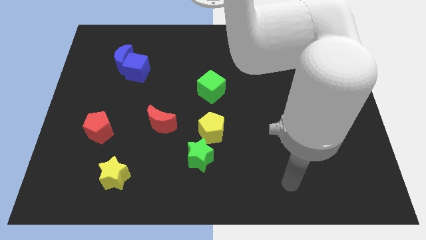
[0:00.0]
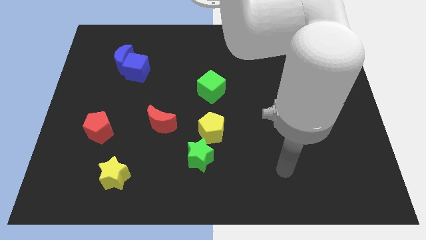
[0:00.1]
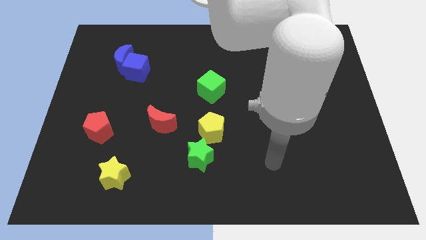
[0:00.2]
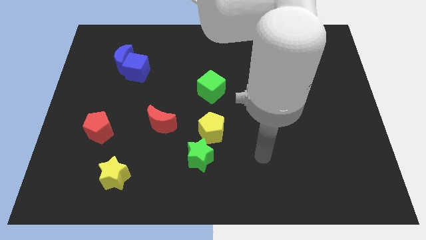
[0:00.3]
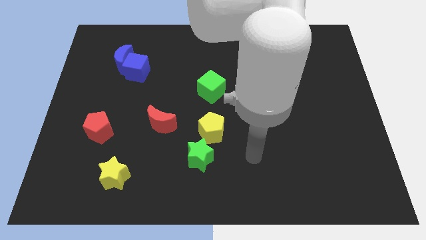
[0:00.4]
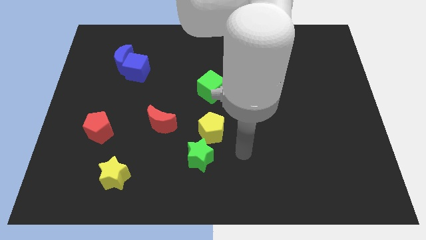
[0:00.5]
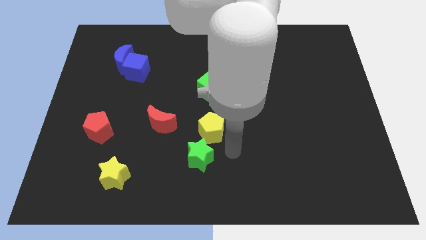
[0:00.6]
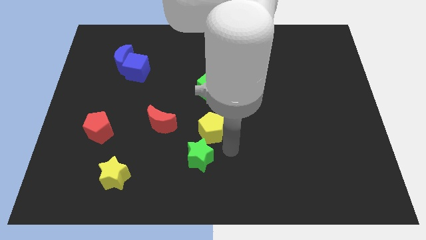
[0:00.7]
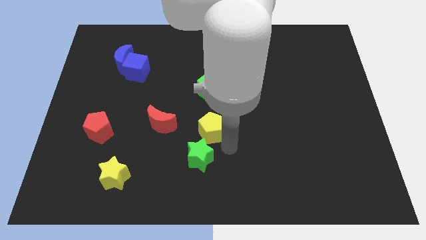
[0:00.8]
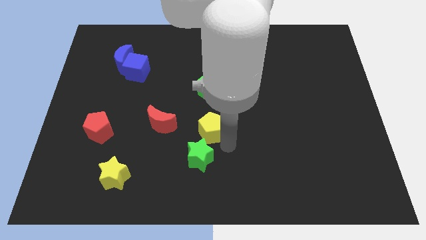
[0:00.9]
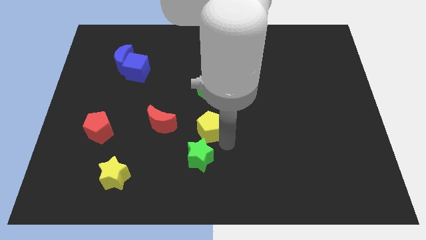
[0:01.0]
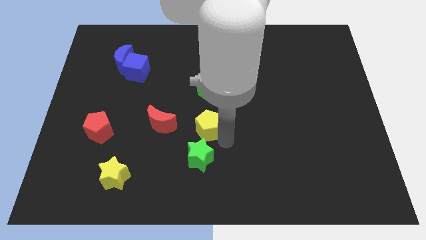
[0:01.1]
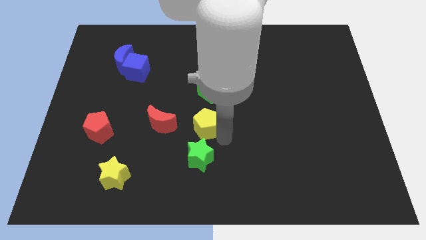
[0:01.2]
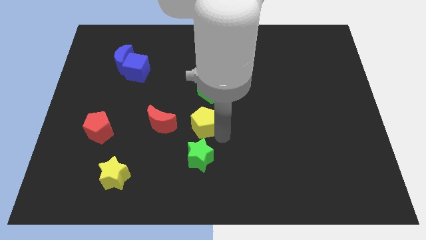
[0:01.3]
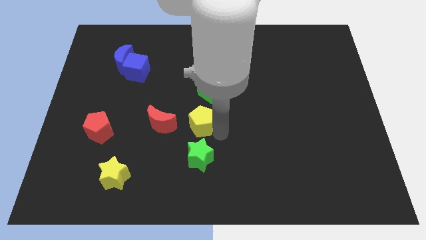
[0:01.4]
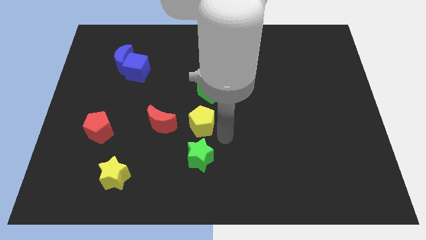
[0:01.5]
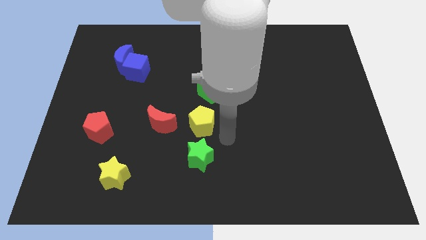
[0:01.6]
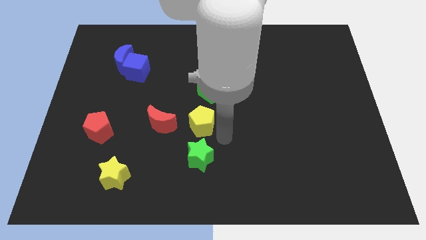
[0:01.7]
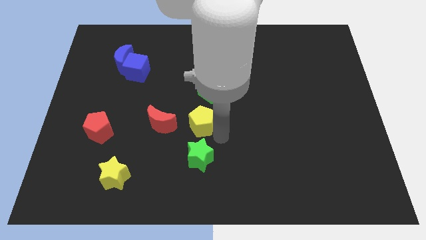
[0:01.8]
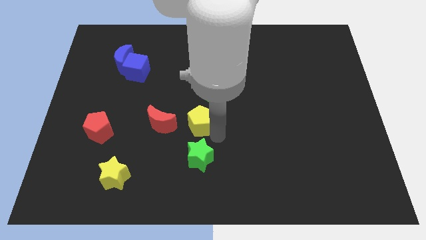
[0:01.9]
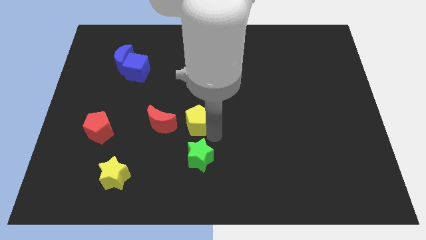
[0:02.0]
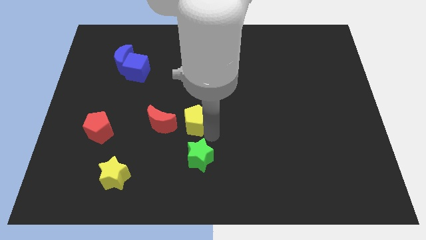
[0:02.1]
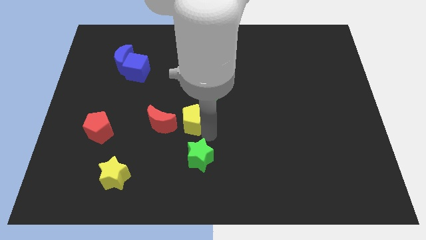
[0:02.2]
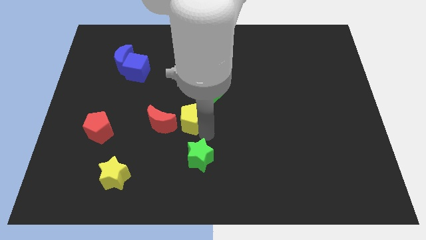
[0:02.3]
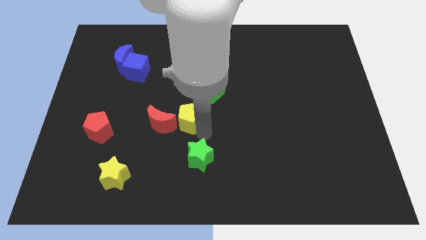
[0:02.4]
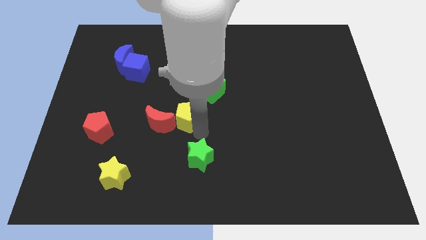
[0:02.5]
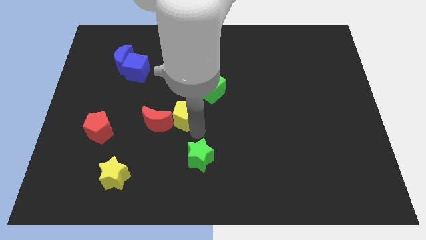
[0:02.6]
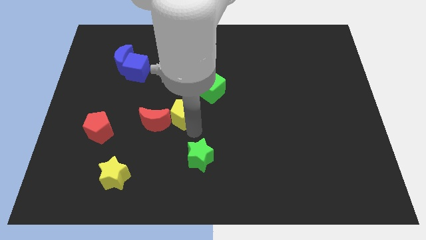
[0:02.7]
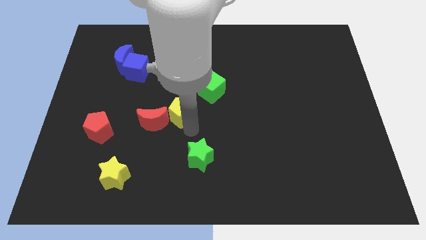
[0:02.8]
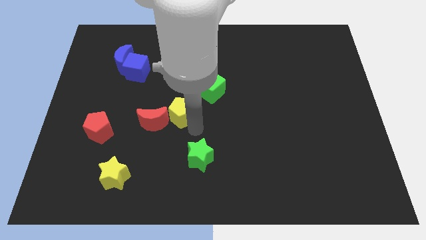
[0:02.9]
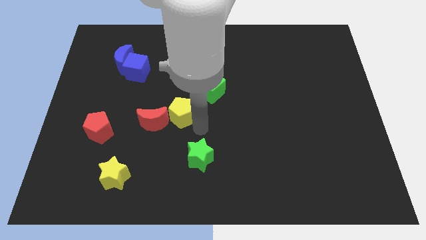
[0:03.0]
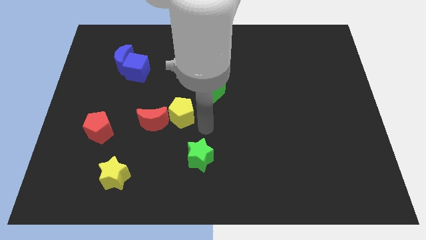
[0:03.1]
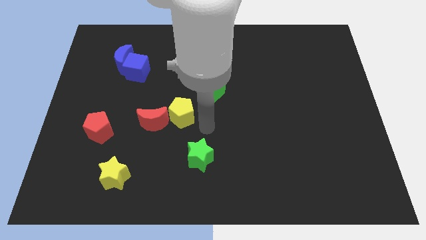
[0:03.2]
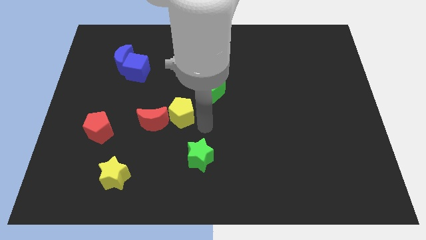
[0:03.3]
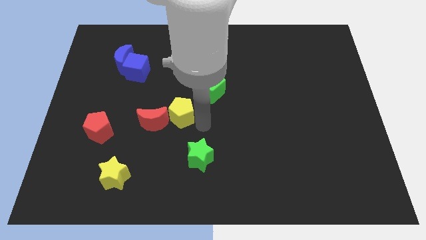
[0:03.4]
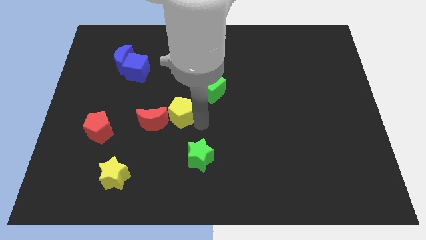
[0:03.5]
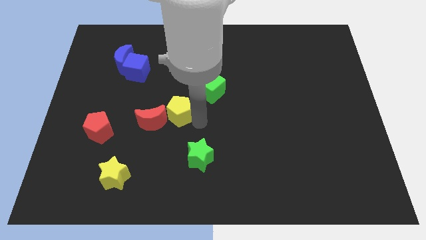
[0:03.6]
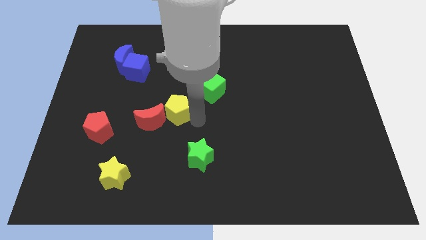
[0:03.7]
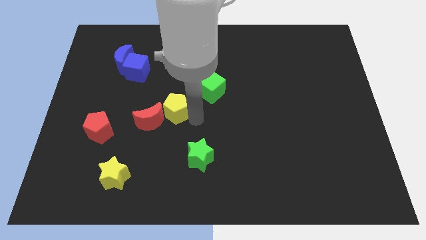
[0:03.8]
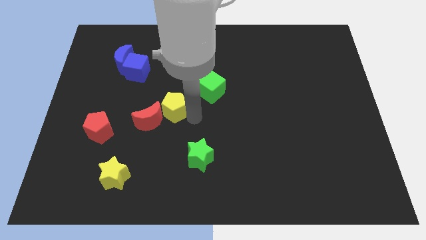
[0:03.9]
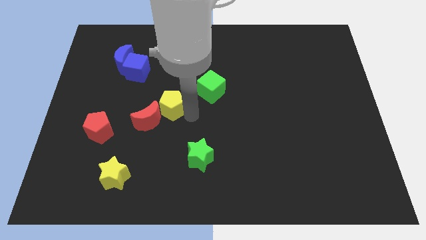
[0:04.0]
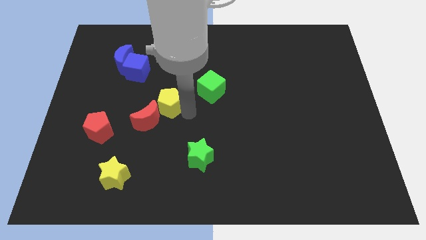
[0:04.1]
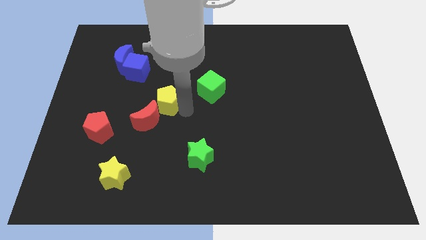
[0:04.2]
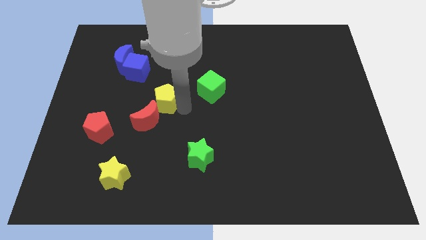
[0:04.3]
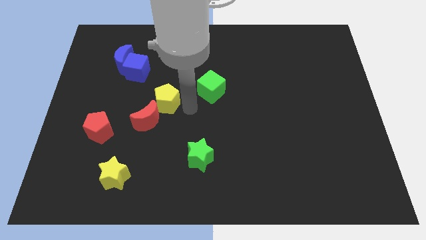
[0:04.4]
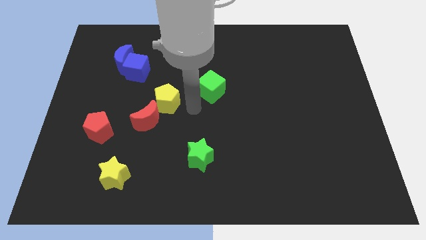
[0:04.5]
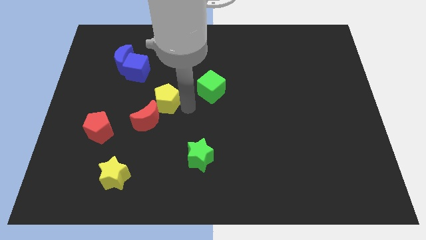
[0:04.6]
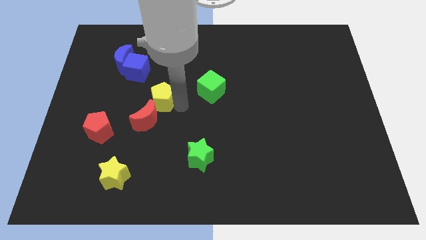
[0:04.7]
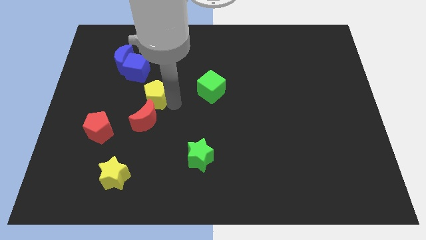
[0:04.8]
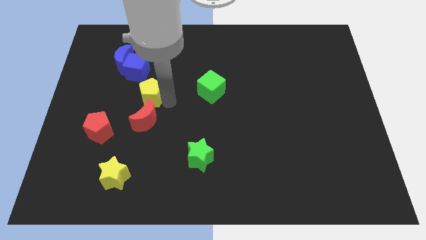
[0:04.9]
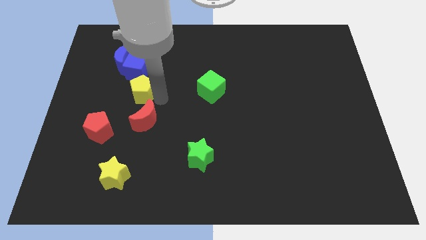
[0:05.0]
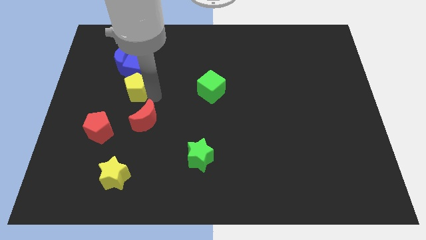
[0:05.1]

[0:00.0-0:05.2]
move the yellow pentagon below the blue moon

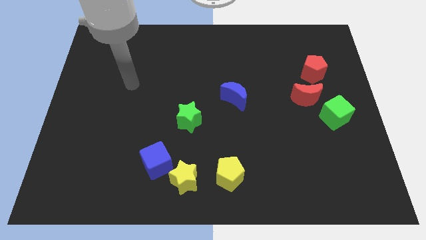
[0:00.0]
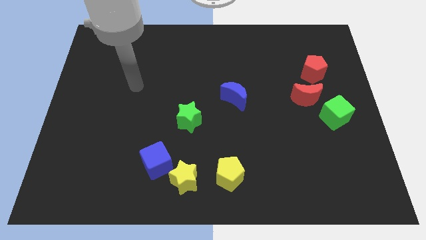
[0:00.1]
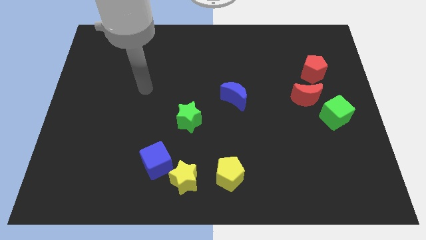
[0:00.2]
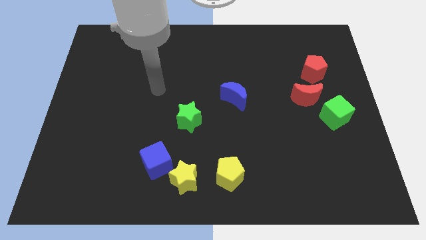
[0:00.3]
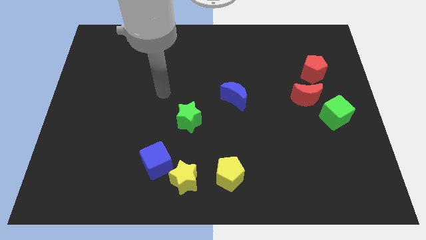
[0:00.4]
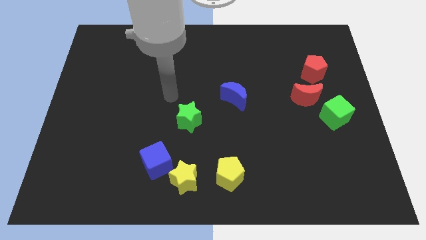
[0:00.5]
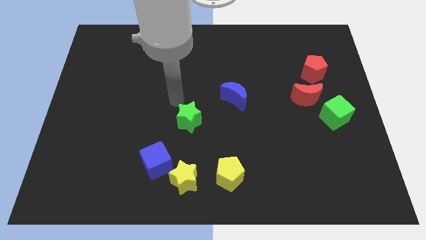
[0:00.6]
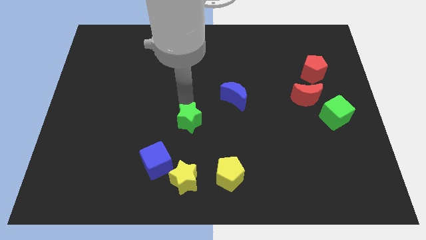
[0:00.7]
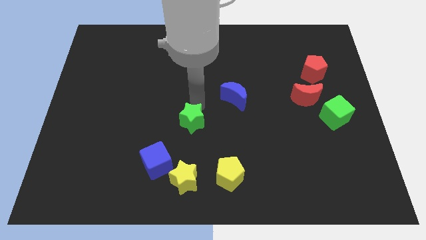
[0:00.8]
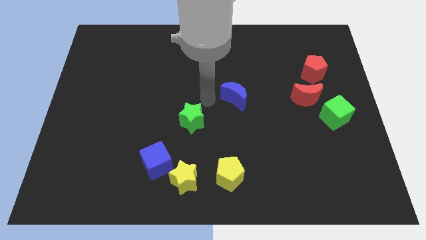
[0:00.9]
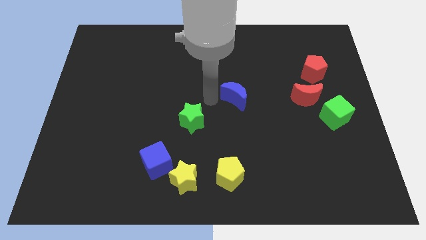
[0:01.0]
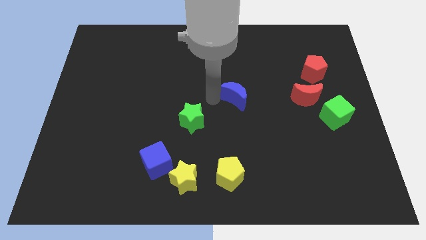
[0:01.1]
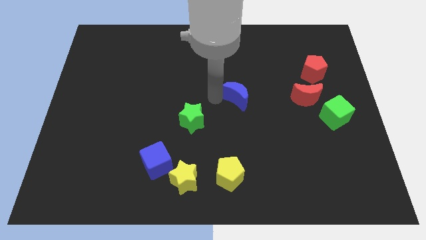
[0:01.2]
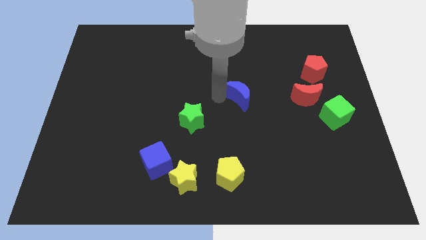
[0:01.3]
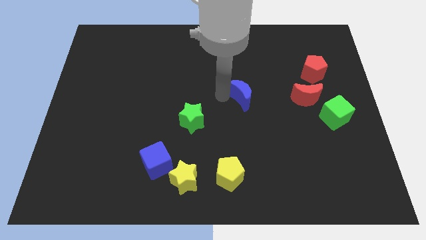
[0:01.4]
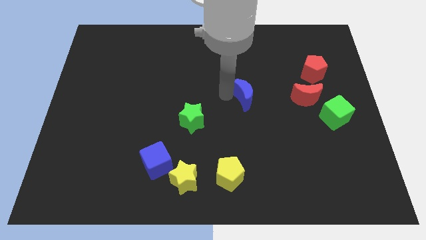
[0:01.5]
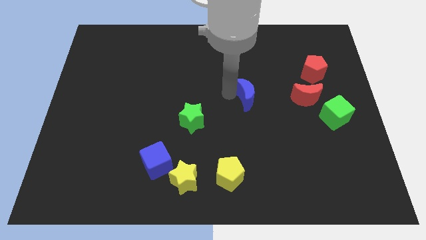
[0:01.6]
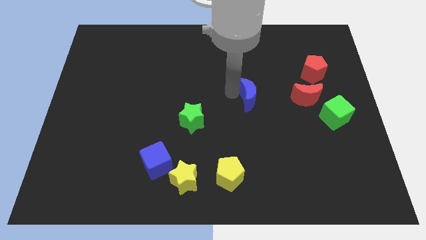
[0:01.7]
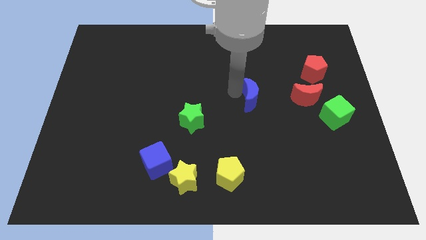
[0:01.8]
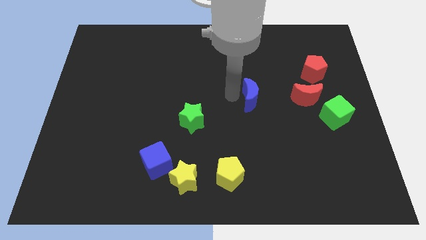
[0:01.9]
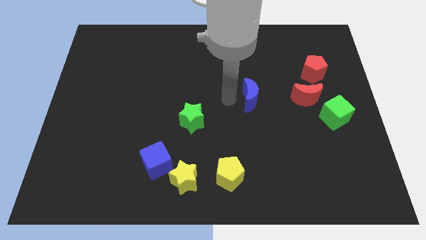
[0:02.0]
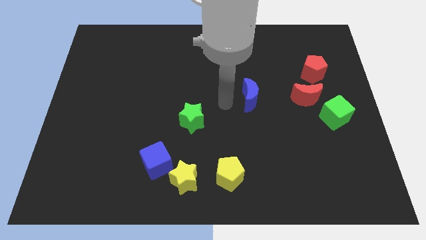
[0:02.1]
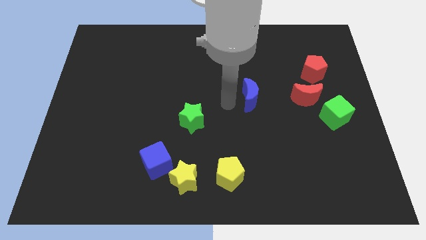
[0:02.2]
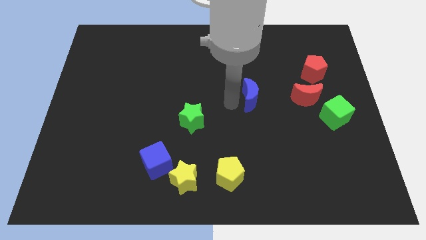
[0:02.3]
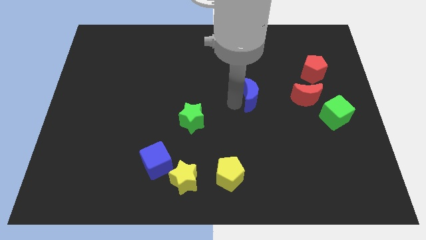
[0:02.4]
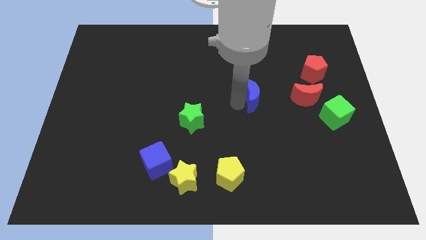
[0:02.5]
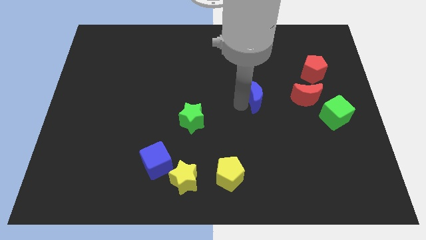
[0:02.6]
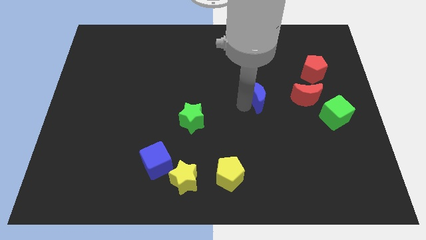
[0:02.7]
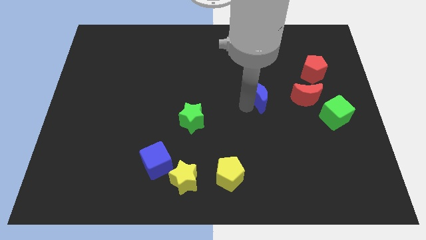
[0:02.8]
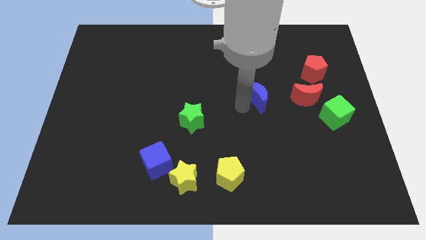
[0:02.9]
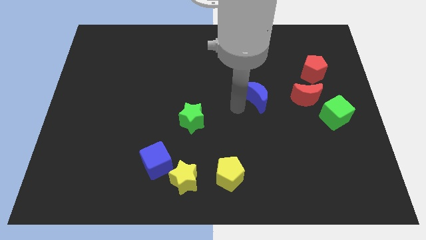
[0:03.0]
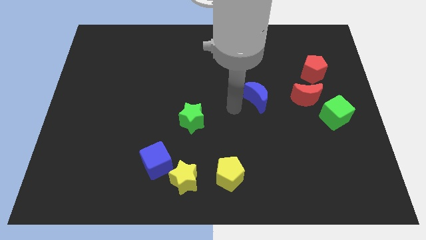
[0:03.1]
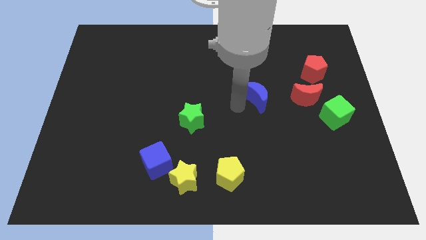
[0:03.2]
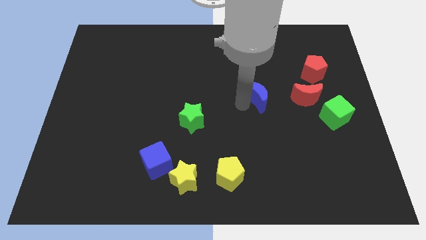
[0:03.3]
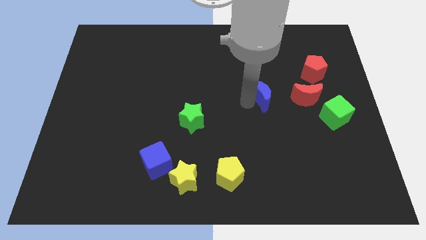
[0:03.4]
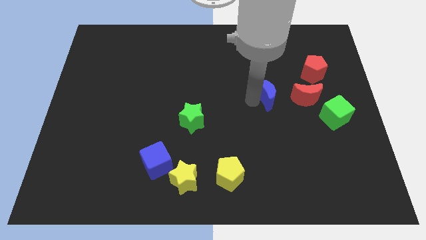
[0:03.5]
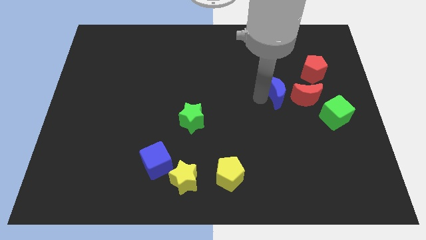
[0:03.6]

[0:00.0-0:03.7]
put the blue moon to the bottom left of the red pentagon
